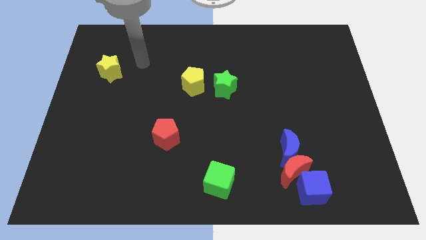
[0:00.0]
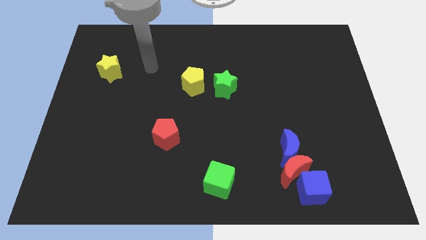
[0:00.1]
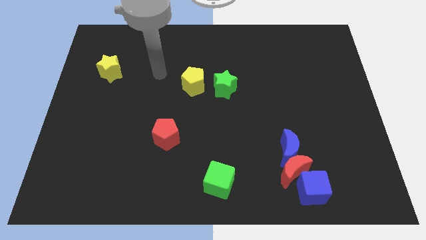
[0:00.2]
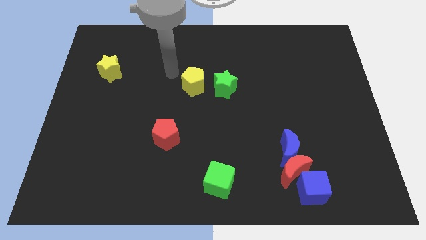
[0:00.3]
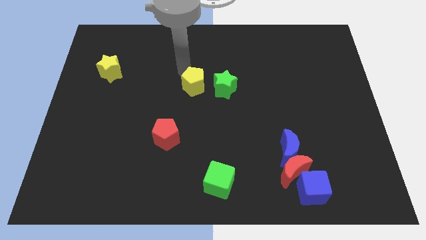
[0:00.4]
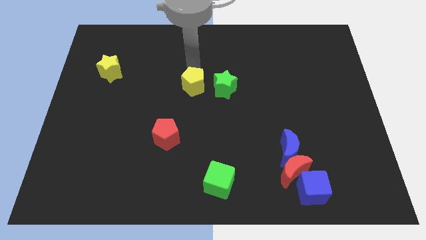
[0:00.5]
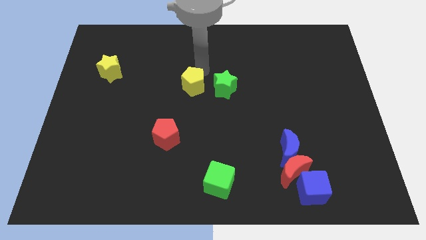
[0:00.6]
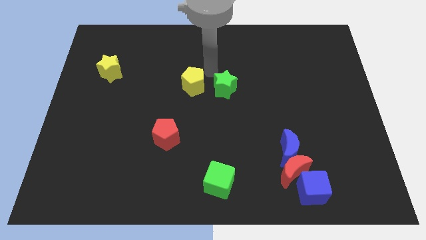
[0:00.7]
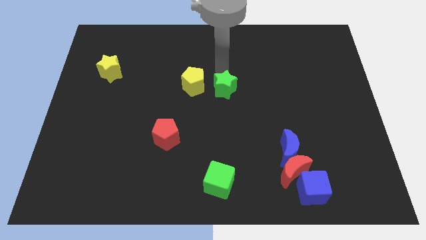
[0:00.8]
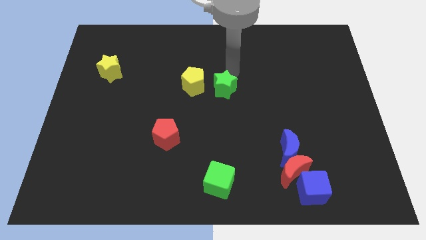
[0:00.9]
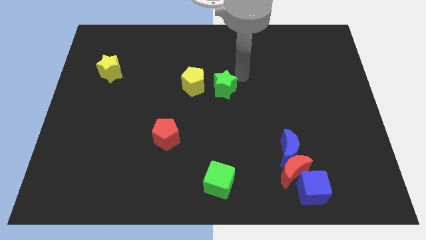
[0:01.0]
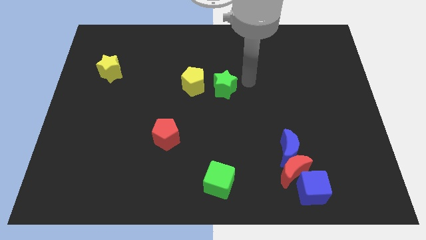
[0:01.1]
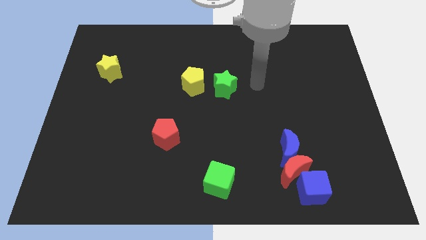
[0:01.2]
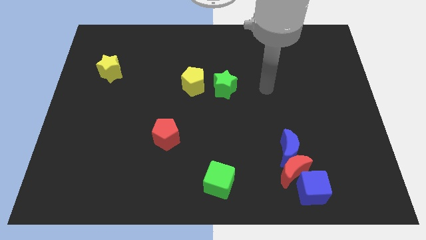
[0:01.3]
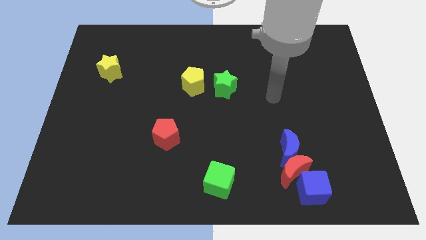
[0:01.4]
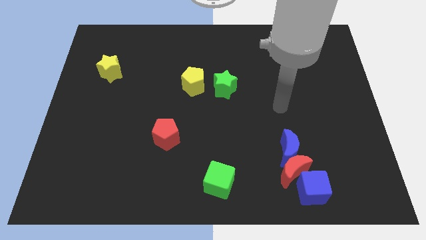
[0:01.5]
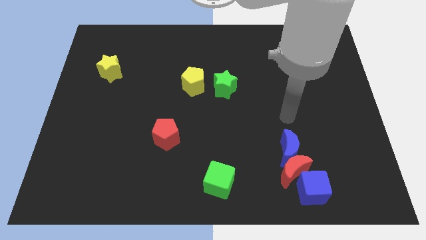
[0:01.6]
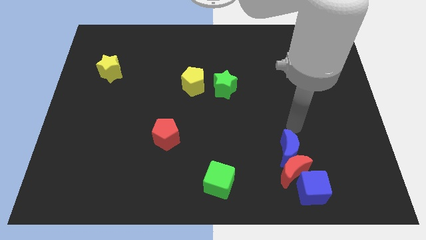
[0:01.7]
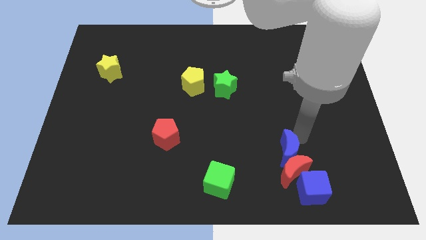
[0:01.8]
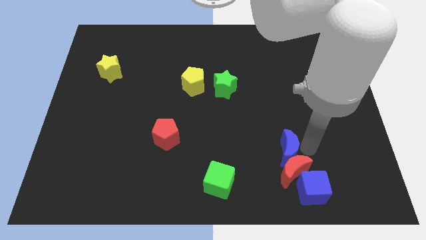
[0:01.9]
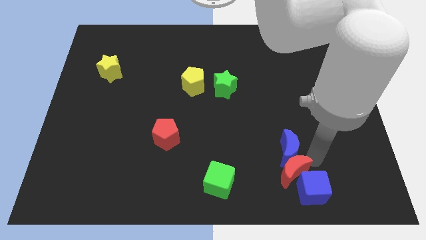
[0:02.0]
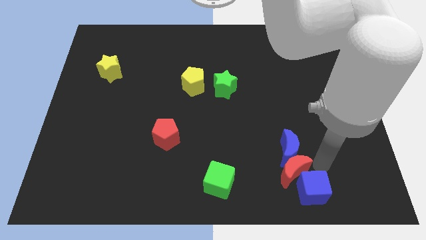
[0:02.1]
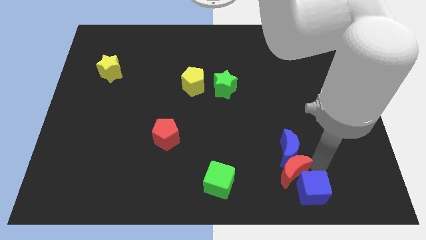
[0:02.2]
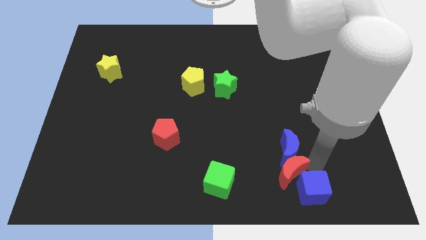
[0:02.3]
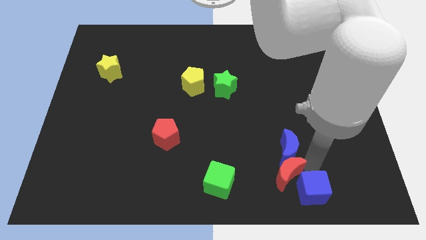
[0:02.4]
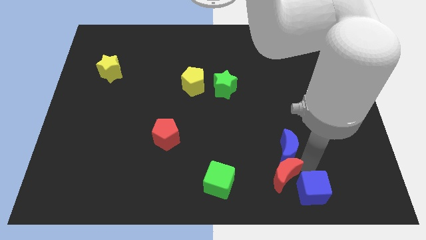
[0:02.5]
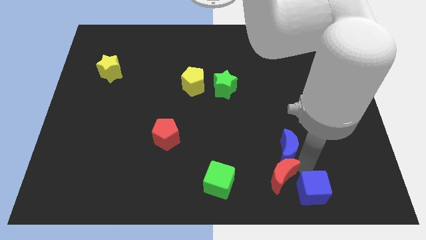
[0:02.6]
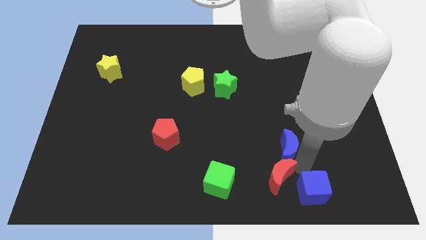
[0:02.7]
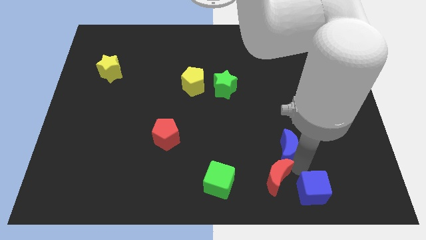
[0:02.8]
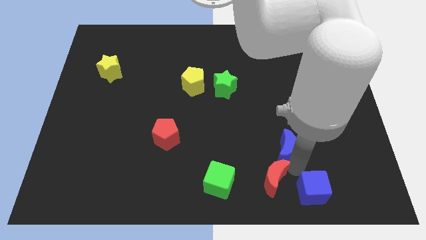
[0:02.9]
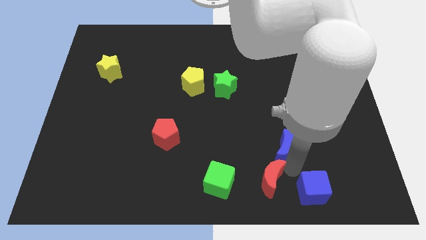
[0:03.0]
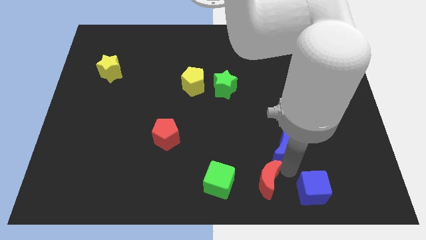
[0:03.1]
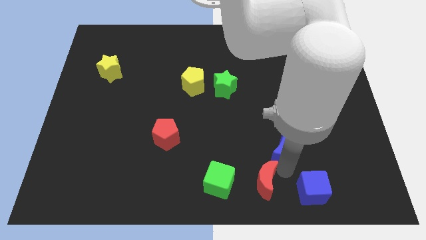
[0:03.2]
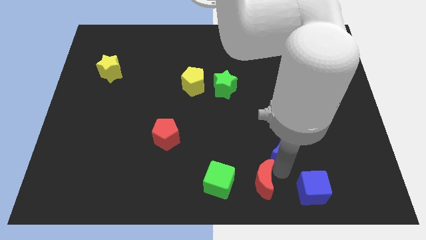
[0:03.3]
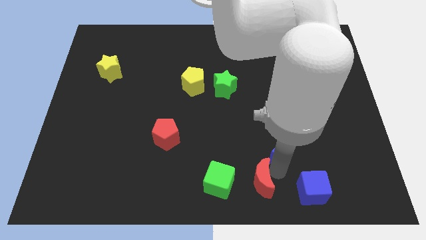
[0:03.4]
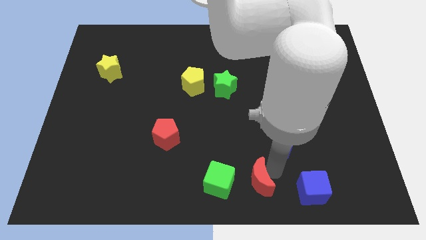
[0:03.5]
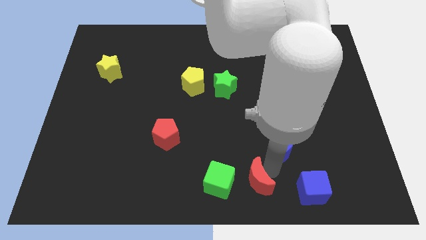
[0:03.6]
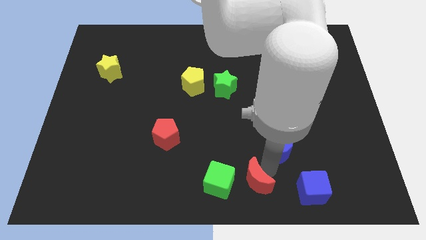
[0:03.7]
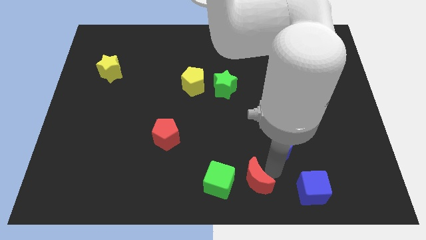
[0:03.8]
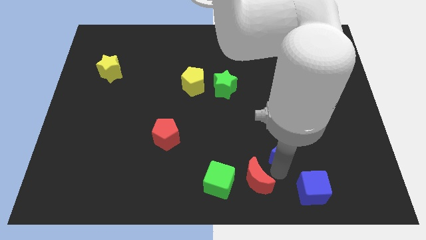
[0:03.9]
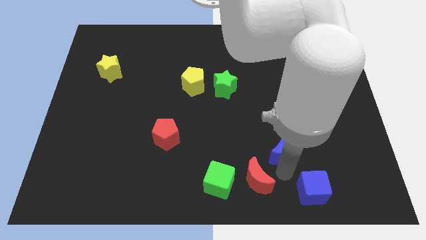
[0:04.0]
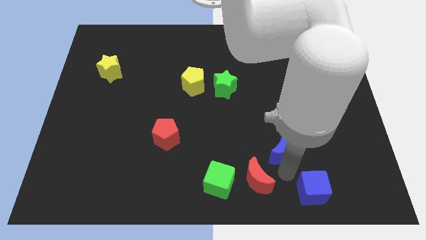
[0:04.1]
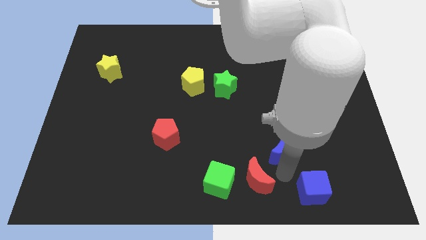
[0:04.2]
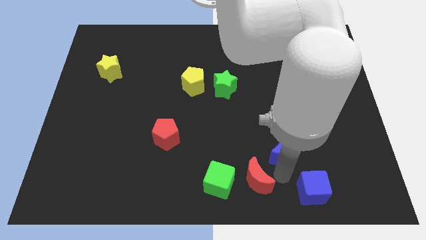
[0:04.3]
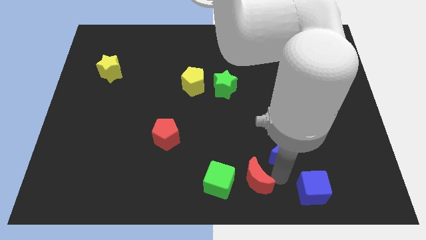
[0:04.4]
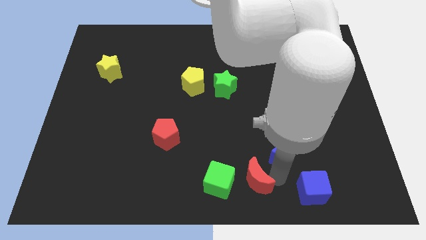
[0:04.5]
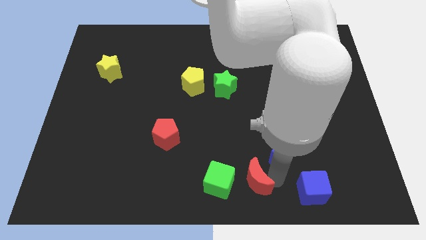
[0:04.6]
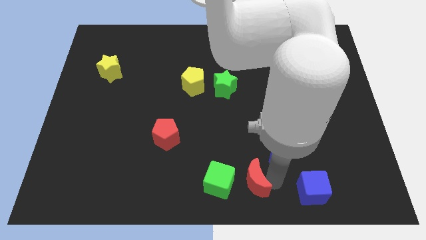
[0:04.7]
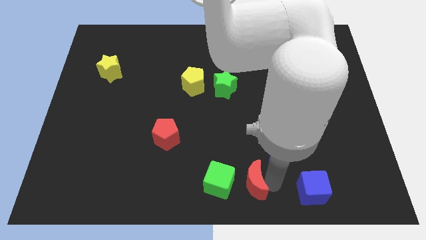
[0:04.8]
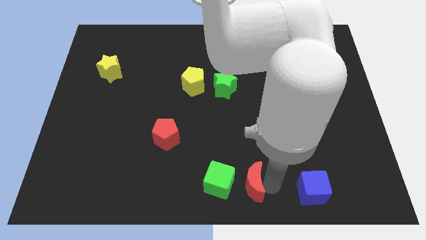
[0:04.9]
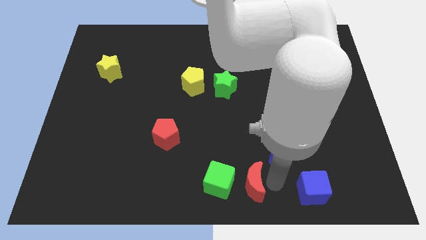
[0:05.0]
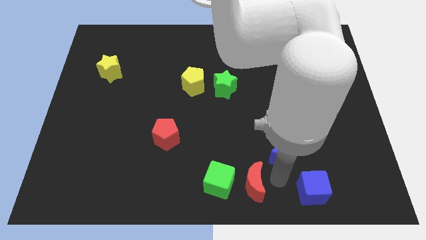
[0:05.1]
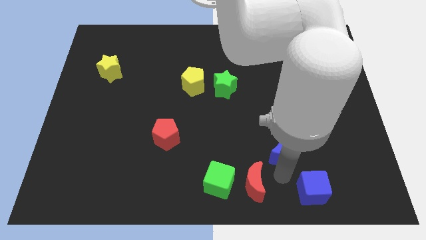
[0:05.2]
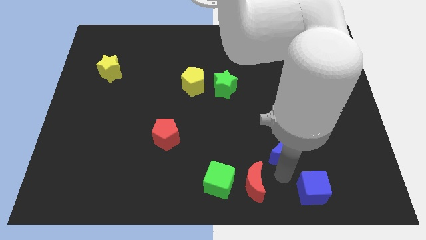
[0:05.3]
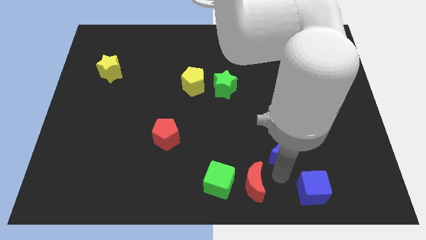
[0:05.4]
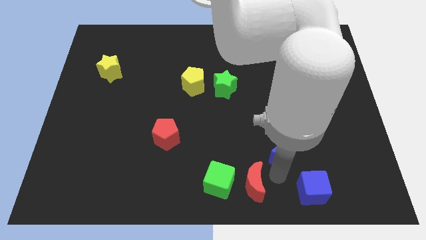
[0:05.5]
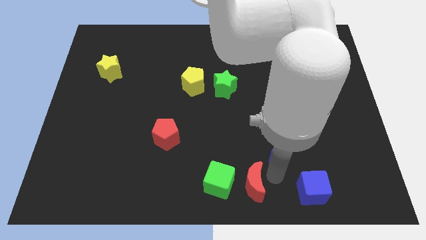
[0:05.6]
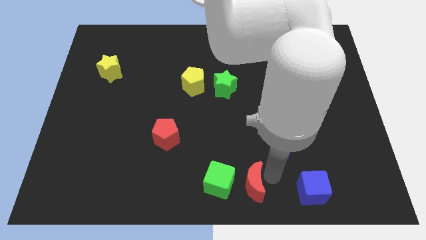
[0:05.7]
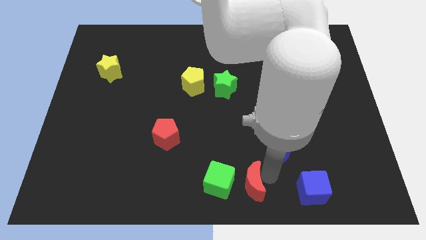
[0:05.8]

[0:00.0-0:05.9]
pull the red moon apart from the blue moon and blue cube

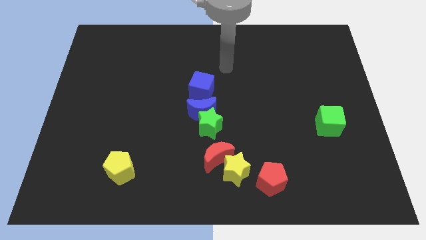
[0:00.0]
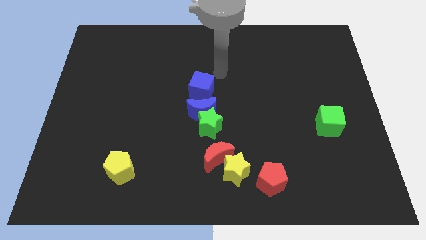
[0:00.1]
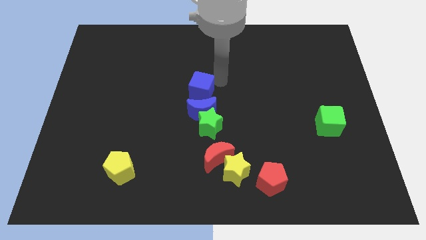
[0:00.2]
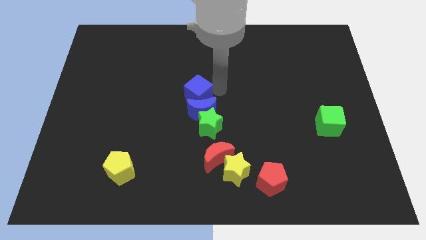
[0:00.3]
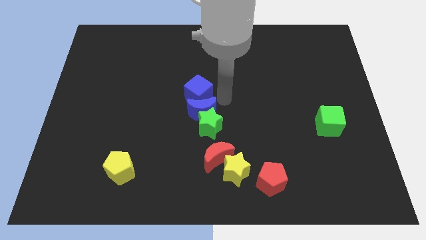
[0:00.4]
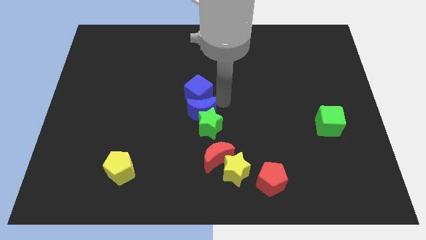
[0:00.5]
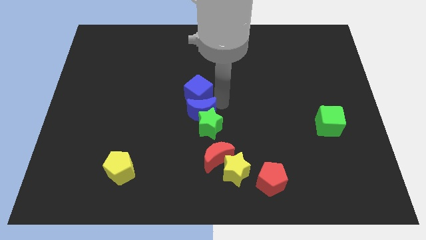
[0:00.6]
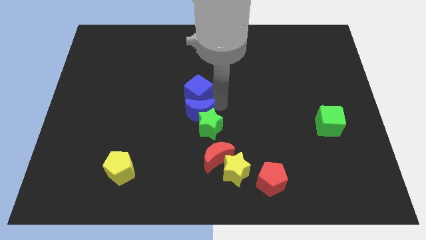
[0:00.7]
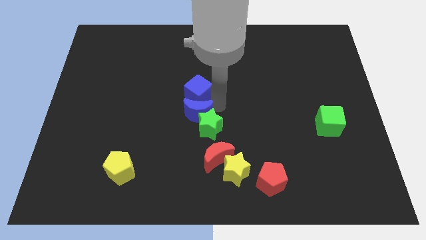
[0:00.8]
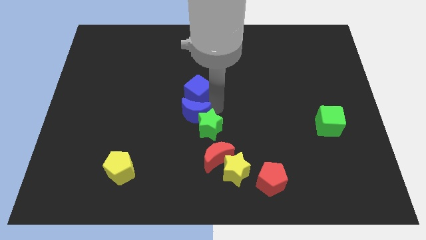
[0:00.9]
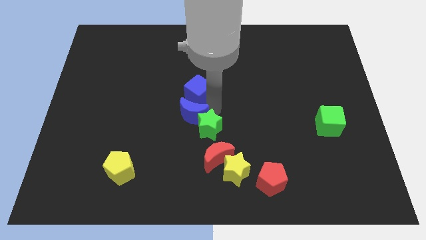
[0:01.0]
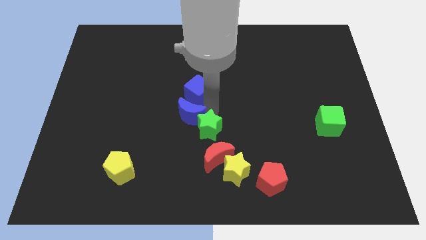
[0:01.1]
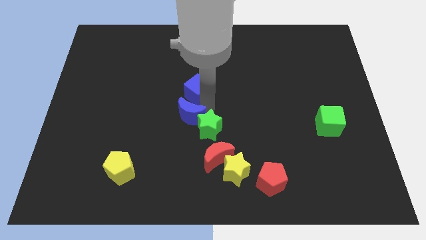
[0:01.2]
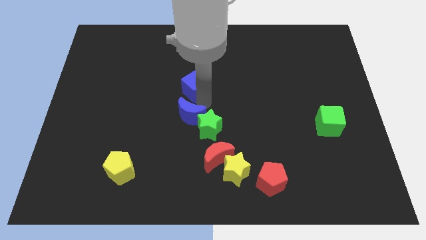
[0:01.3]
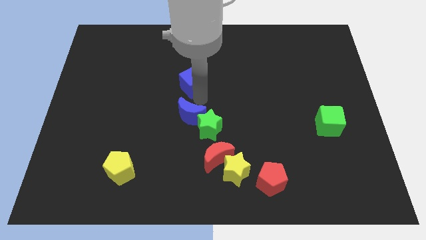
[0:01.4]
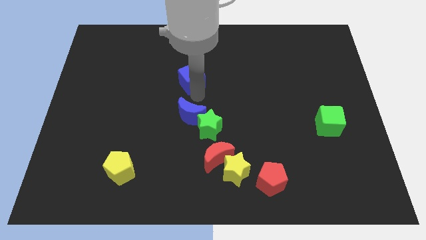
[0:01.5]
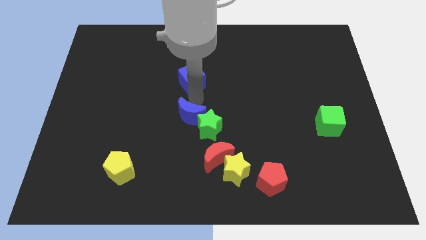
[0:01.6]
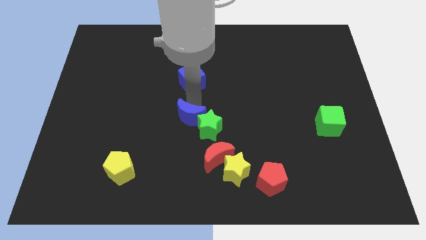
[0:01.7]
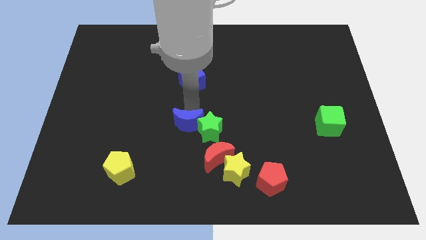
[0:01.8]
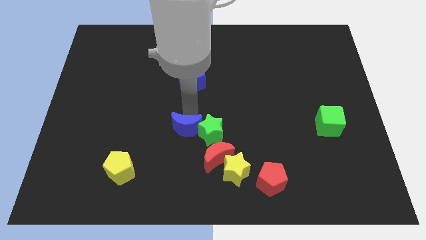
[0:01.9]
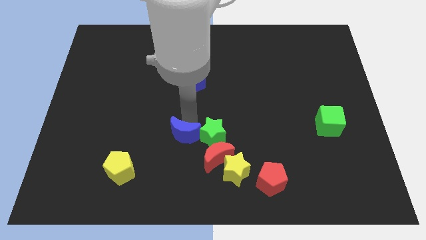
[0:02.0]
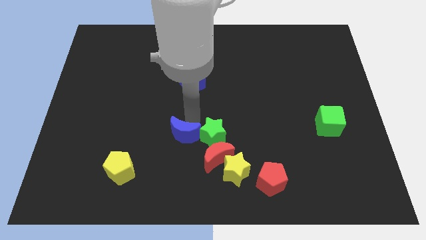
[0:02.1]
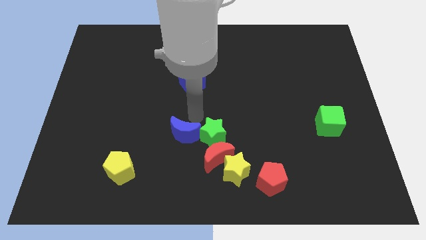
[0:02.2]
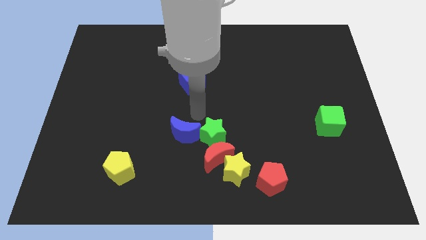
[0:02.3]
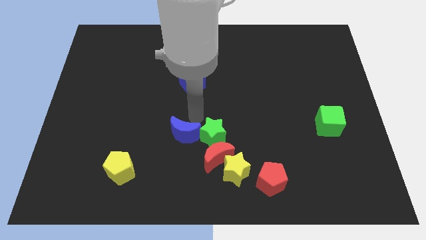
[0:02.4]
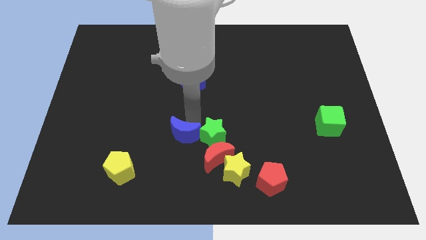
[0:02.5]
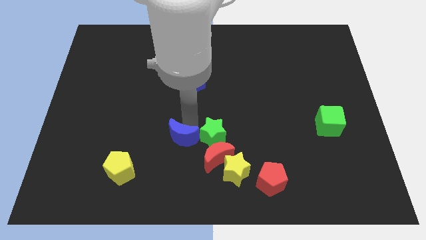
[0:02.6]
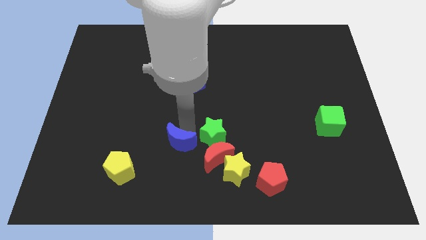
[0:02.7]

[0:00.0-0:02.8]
move the blue moon away from the green star and blue cube

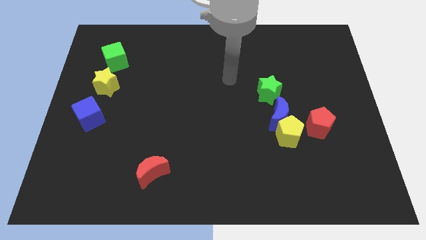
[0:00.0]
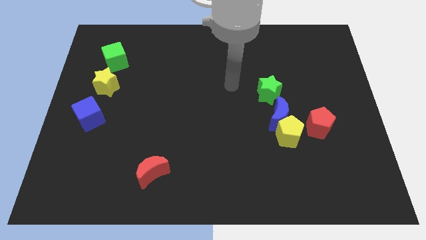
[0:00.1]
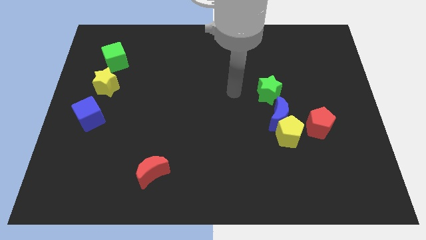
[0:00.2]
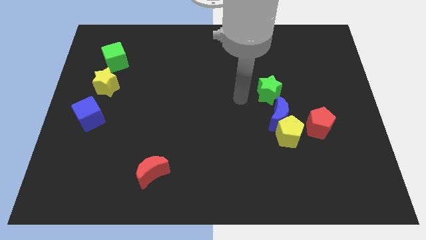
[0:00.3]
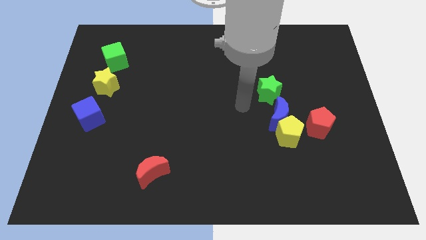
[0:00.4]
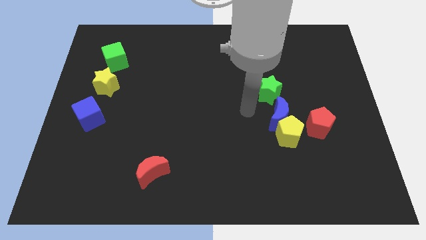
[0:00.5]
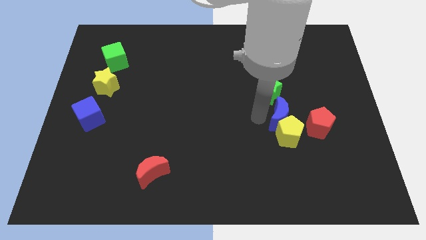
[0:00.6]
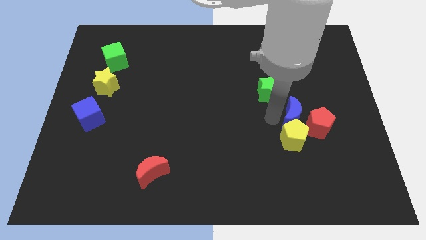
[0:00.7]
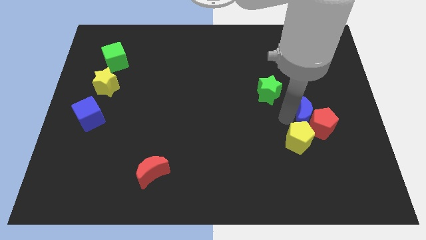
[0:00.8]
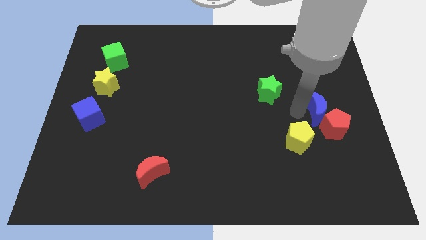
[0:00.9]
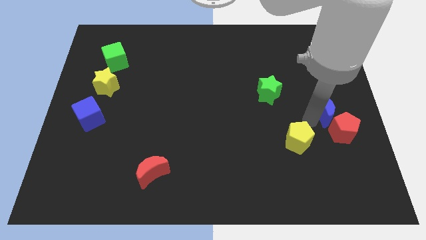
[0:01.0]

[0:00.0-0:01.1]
move the yellow pentagon away from the blue moon and red pentagon
